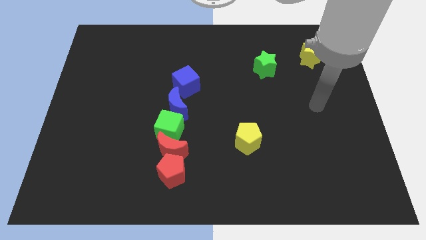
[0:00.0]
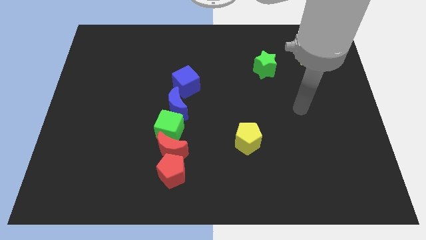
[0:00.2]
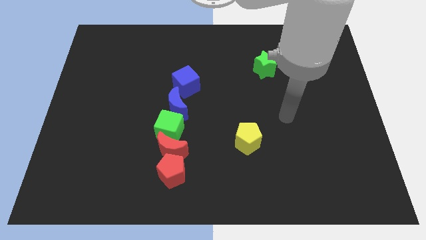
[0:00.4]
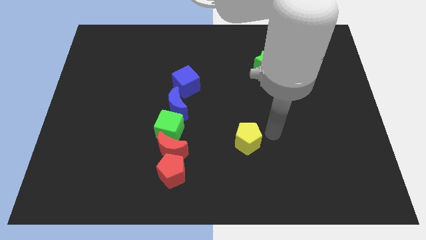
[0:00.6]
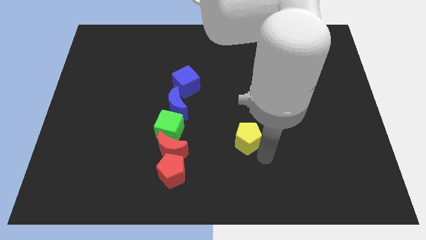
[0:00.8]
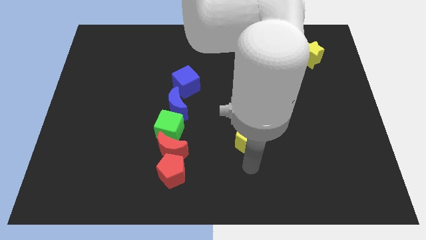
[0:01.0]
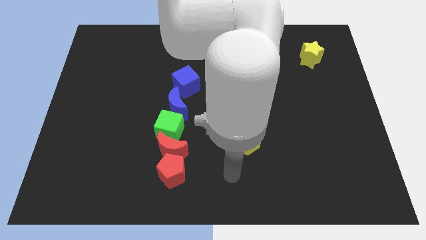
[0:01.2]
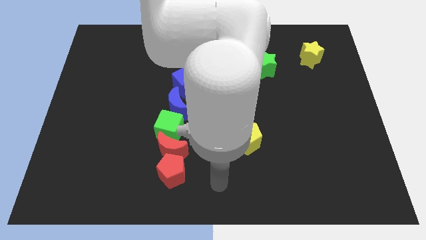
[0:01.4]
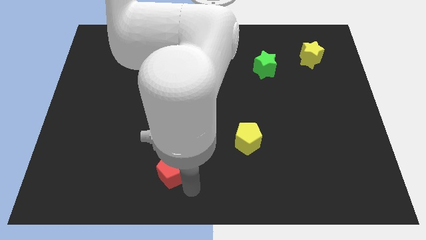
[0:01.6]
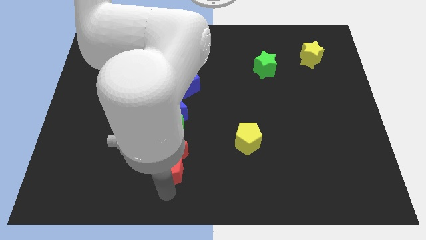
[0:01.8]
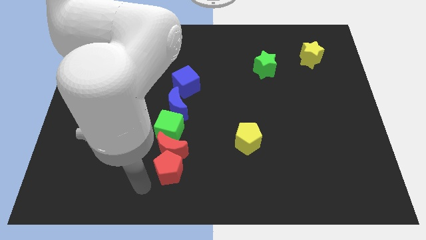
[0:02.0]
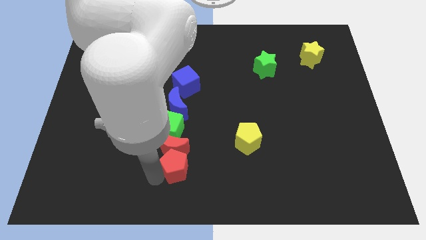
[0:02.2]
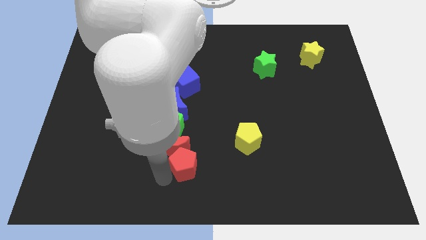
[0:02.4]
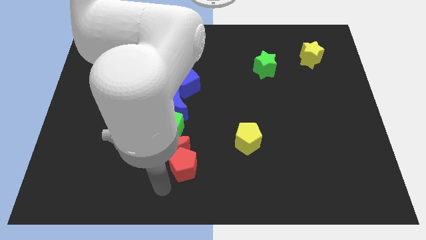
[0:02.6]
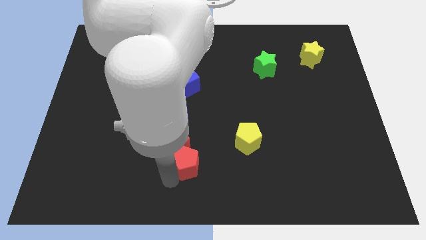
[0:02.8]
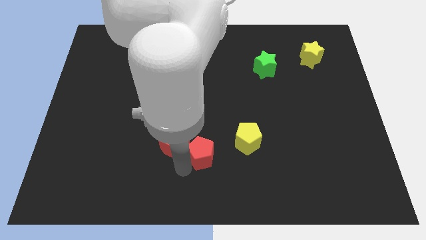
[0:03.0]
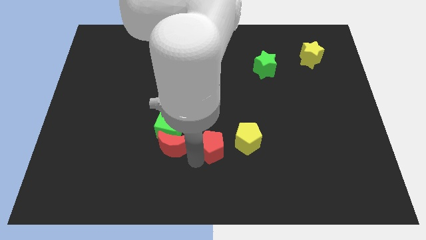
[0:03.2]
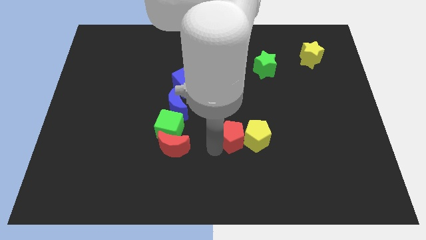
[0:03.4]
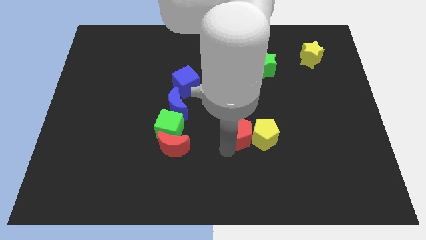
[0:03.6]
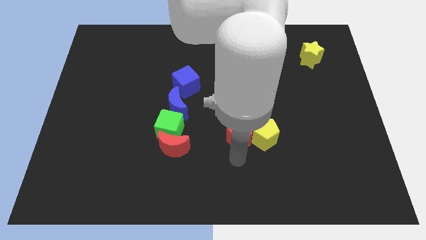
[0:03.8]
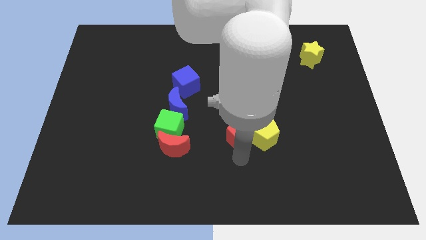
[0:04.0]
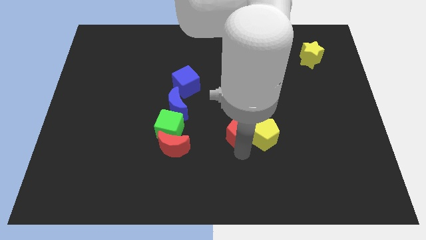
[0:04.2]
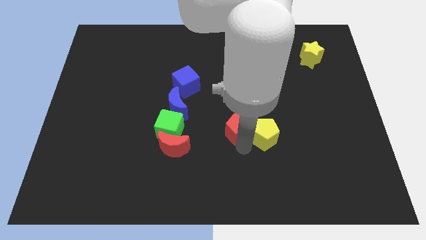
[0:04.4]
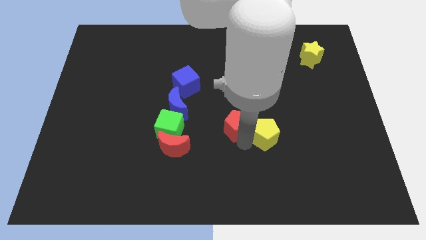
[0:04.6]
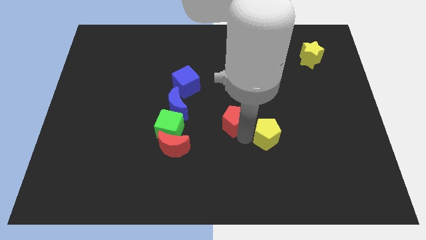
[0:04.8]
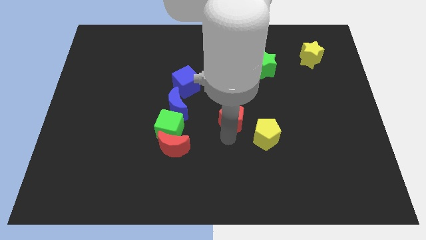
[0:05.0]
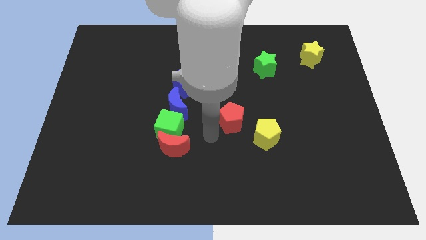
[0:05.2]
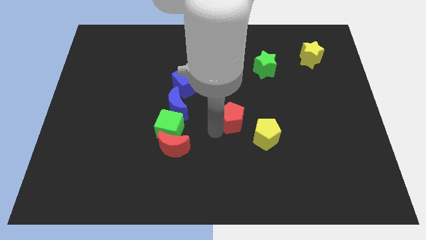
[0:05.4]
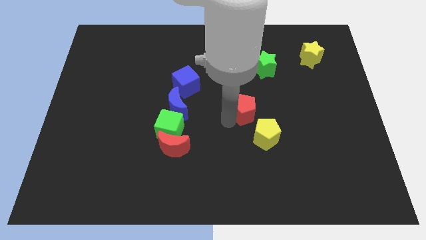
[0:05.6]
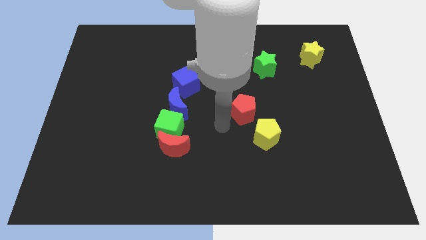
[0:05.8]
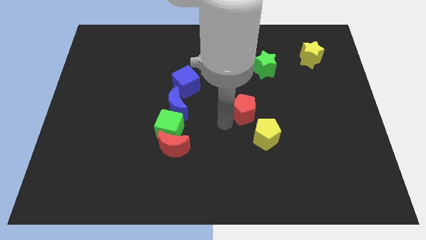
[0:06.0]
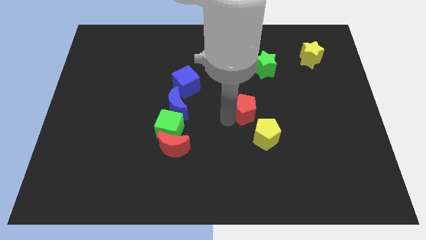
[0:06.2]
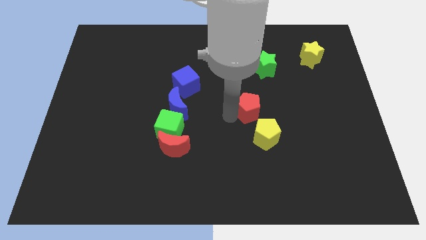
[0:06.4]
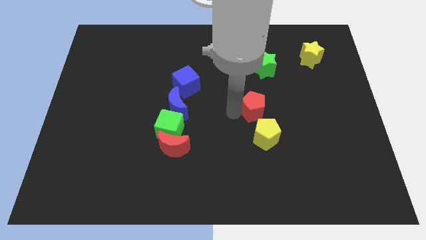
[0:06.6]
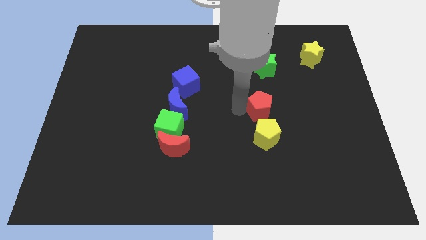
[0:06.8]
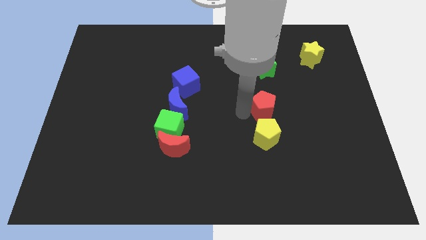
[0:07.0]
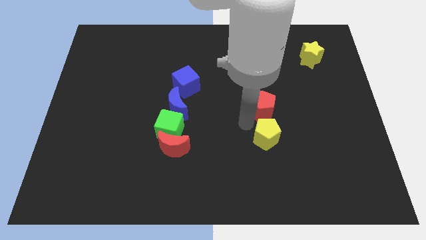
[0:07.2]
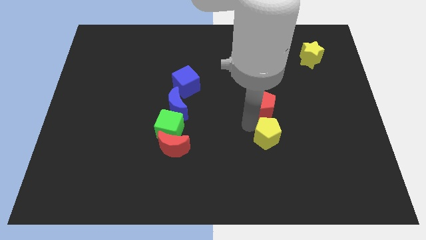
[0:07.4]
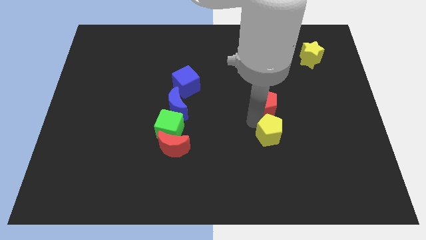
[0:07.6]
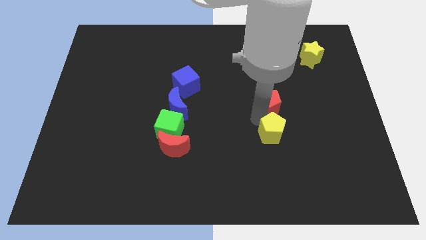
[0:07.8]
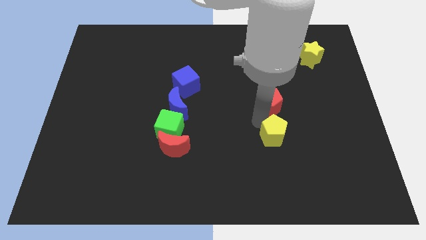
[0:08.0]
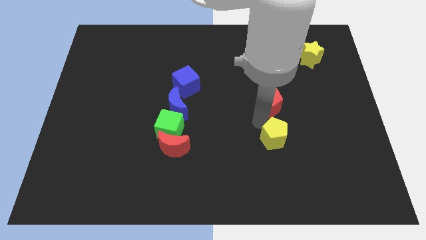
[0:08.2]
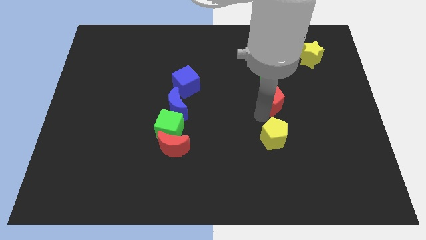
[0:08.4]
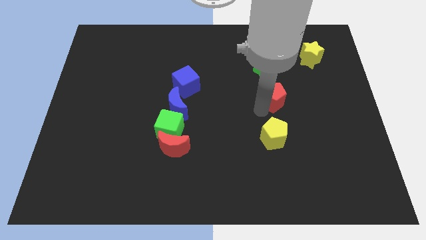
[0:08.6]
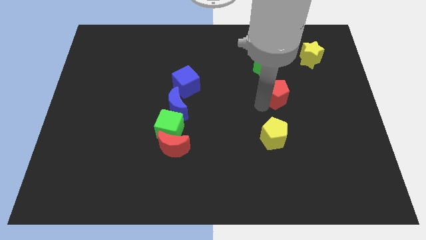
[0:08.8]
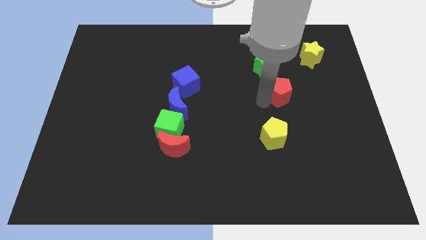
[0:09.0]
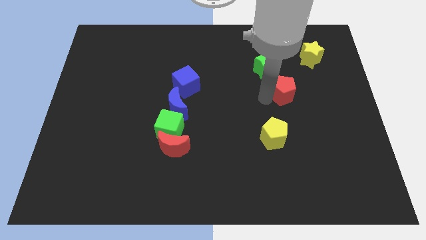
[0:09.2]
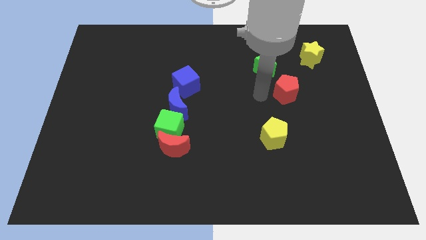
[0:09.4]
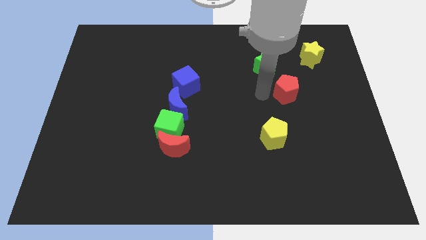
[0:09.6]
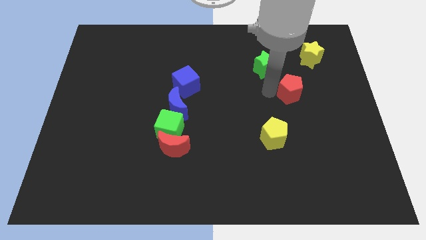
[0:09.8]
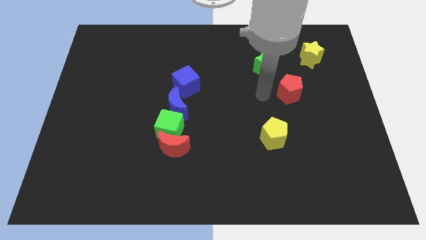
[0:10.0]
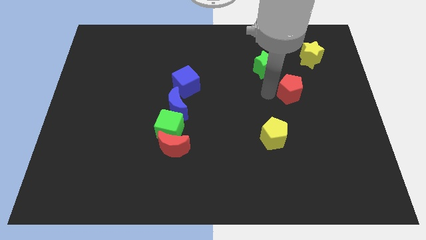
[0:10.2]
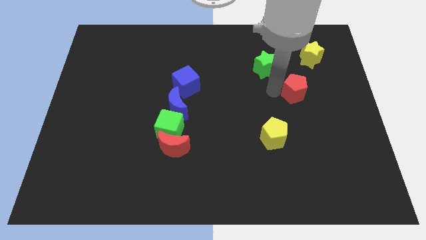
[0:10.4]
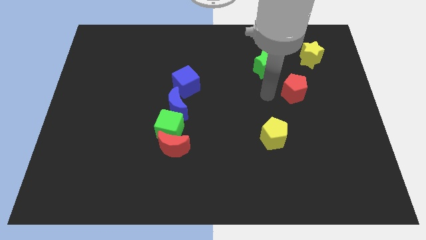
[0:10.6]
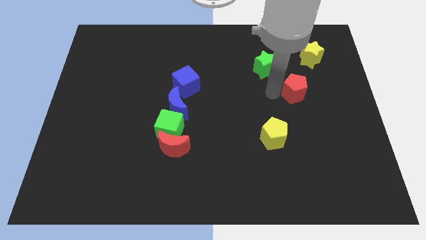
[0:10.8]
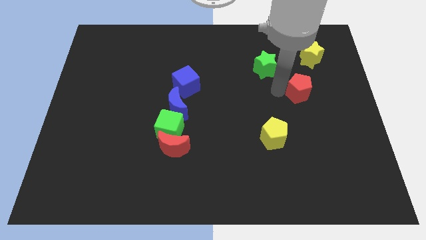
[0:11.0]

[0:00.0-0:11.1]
slide the red pentagon to the bottom side of the yellow star
